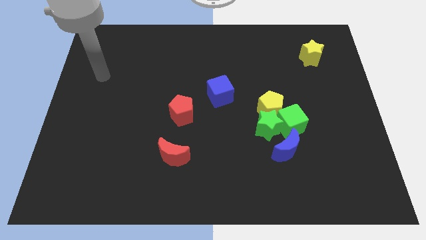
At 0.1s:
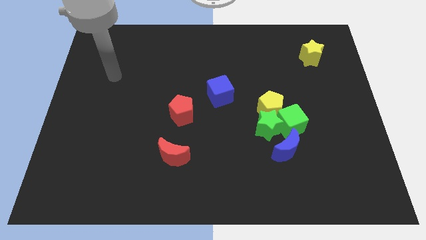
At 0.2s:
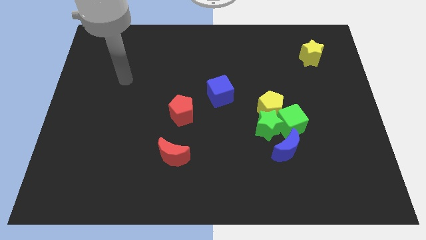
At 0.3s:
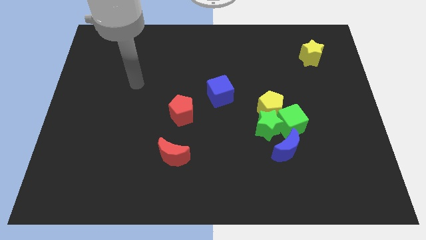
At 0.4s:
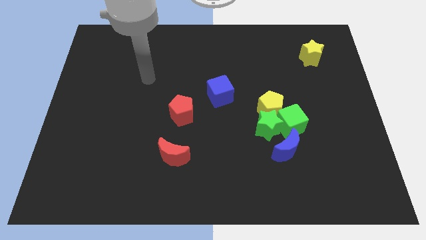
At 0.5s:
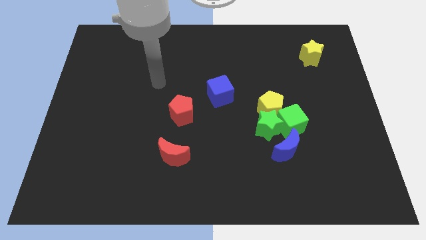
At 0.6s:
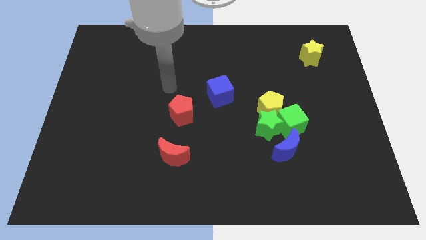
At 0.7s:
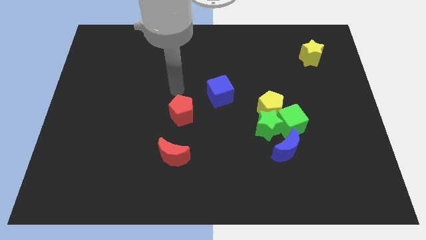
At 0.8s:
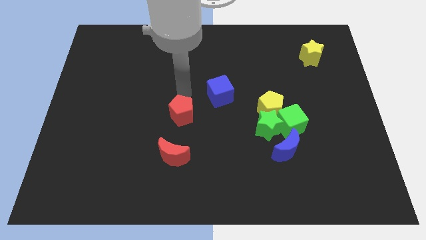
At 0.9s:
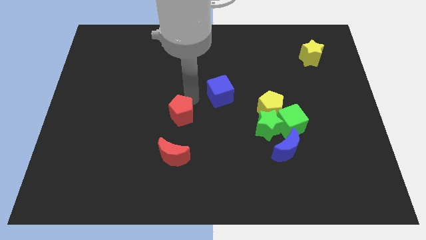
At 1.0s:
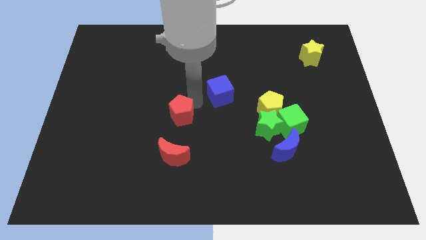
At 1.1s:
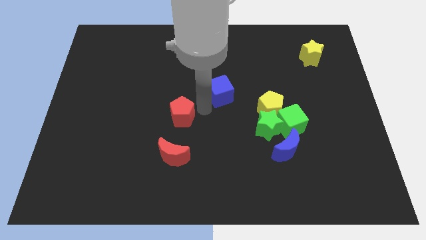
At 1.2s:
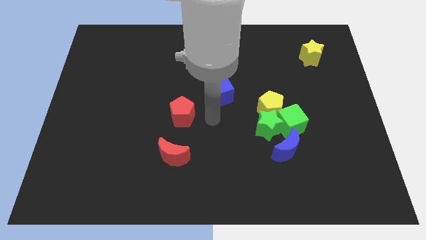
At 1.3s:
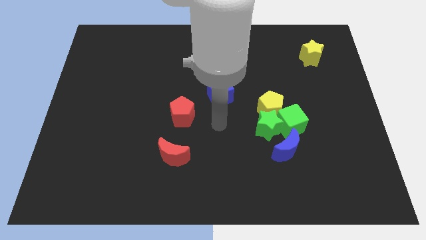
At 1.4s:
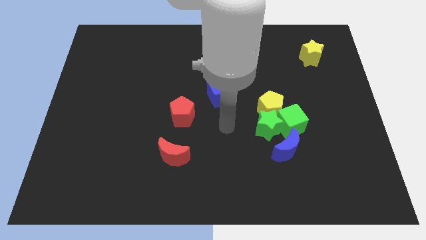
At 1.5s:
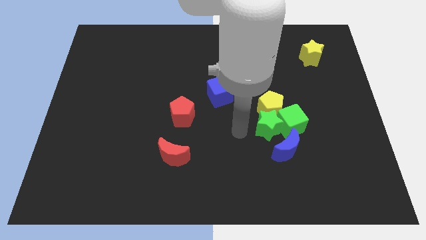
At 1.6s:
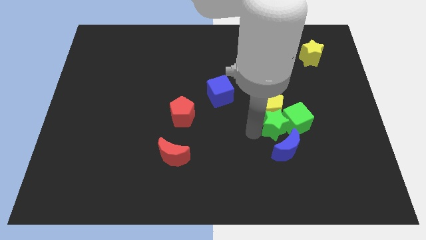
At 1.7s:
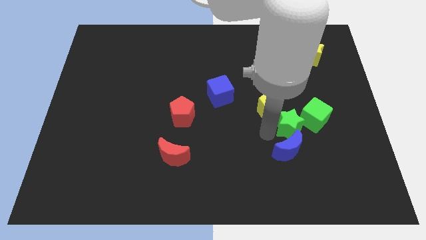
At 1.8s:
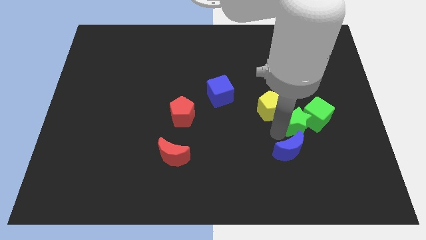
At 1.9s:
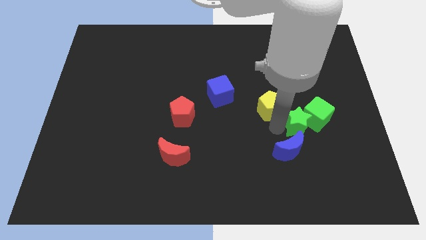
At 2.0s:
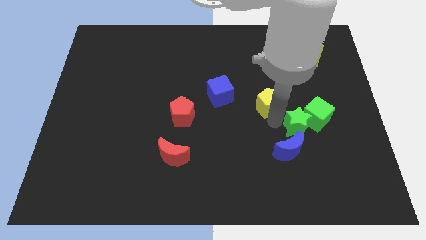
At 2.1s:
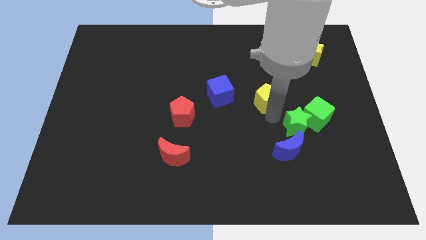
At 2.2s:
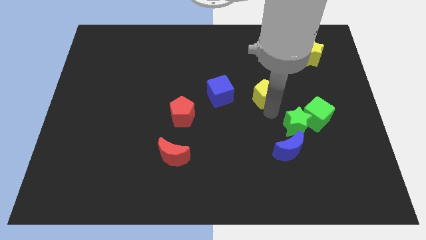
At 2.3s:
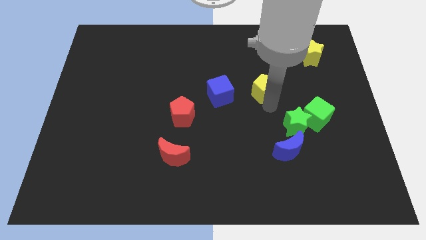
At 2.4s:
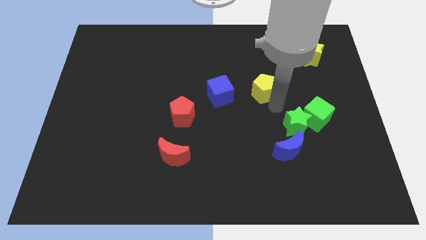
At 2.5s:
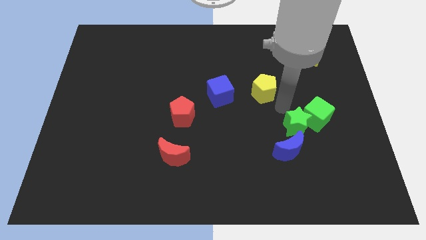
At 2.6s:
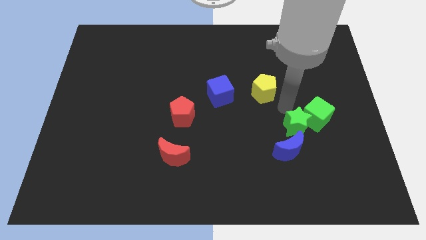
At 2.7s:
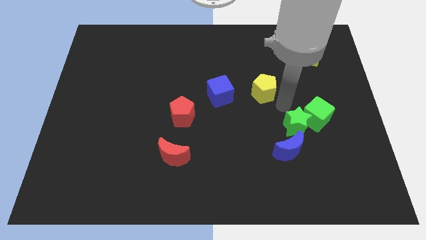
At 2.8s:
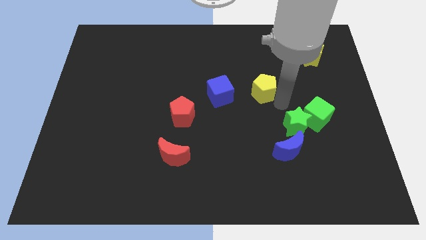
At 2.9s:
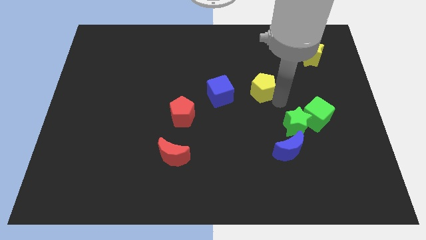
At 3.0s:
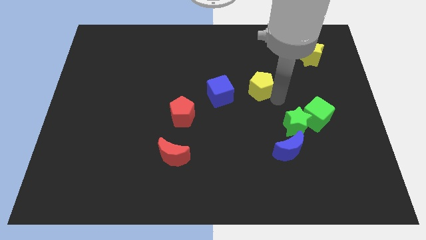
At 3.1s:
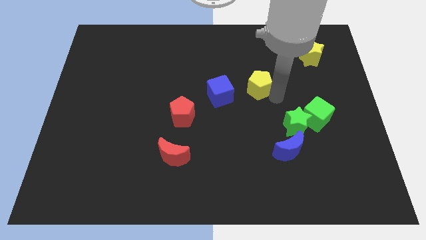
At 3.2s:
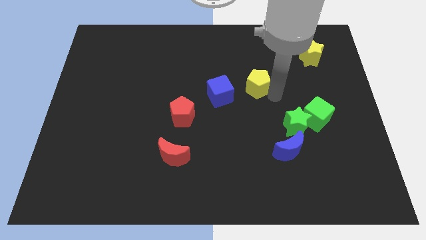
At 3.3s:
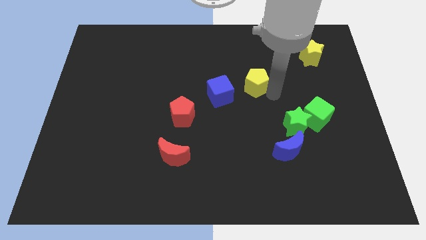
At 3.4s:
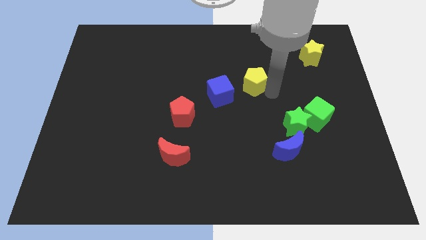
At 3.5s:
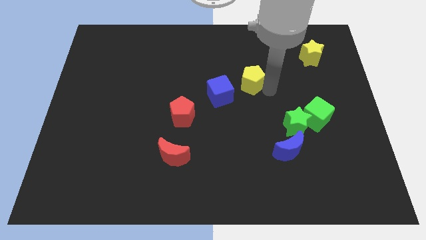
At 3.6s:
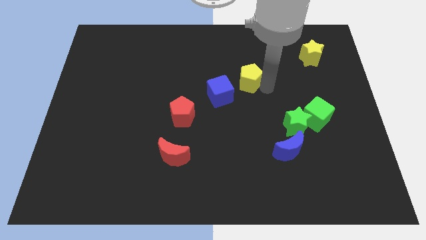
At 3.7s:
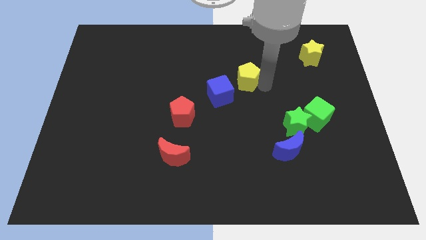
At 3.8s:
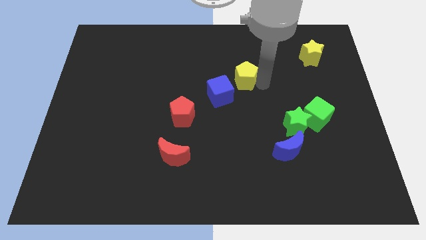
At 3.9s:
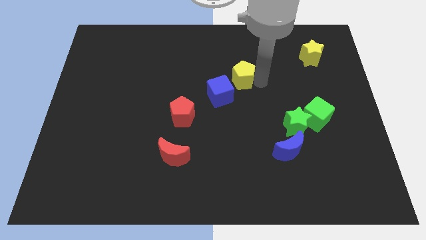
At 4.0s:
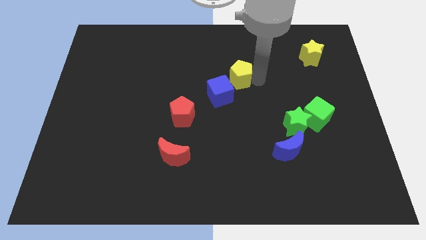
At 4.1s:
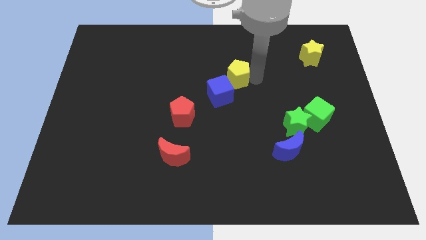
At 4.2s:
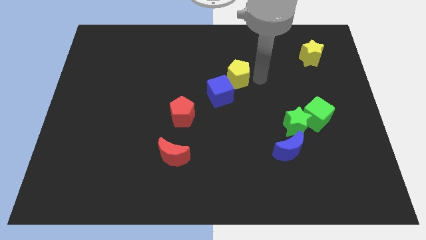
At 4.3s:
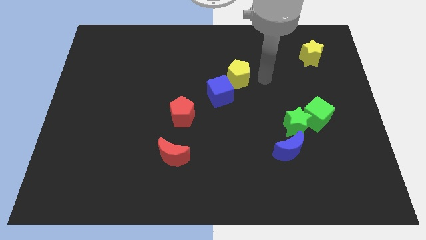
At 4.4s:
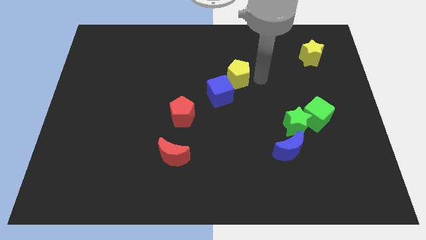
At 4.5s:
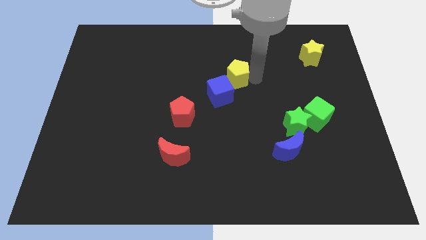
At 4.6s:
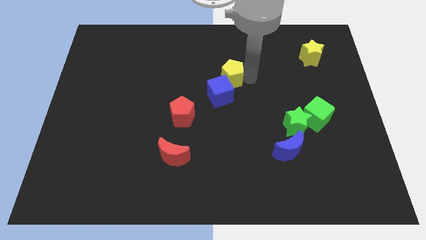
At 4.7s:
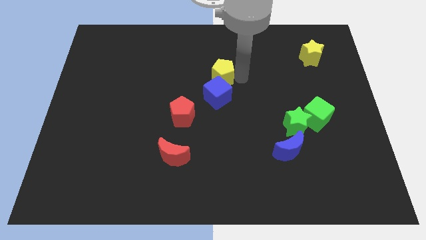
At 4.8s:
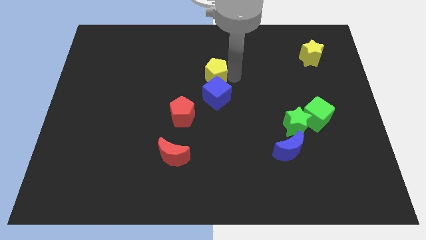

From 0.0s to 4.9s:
move the yellow pentagon diagonally up and to the left of the blue cube

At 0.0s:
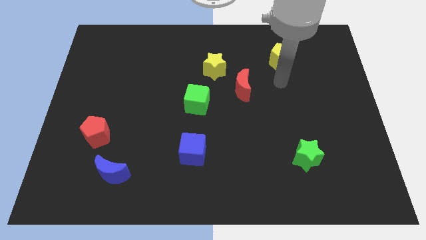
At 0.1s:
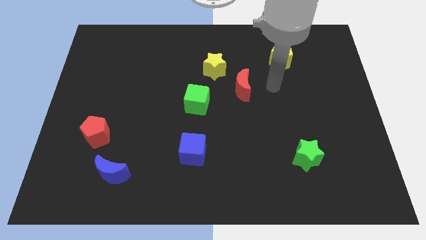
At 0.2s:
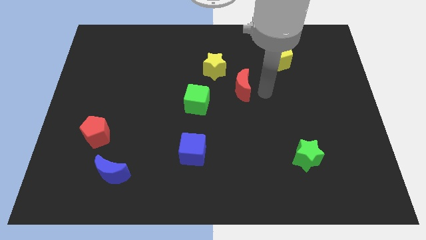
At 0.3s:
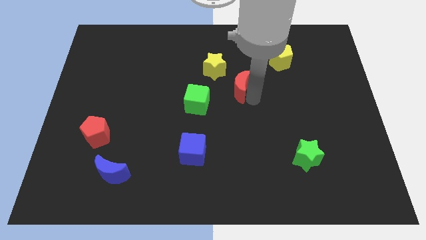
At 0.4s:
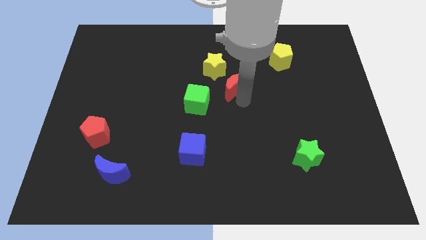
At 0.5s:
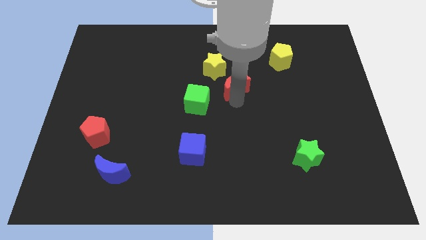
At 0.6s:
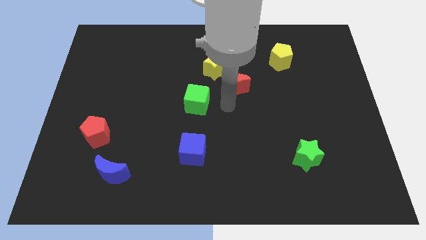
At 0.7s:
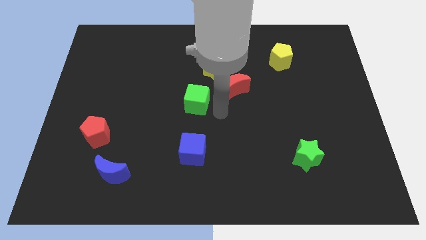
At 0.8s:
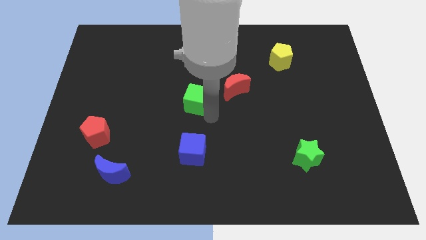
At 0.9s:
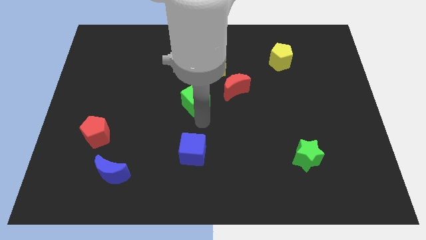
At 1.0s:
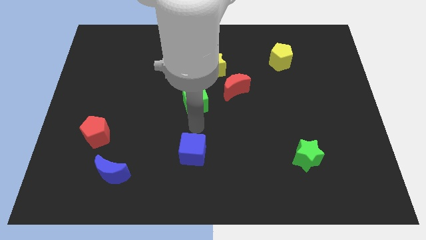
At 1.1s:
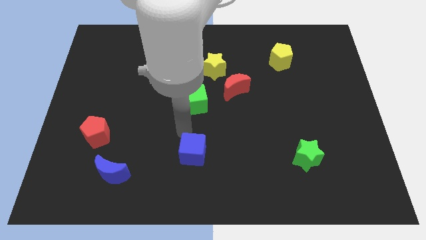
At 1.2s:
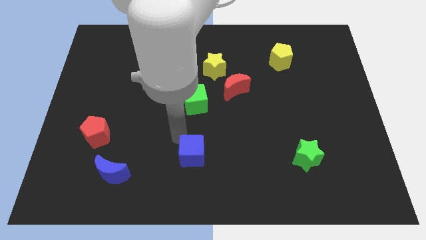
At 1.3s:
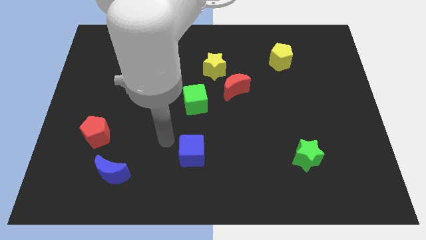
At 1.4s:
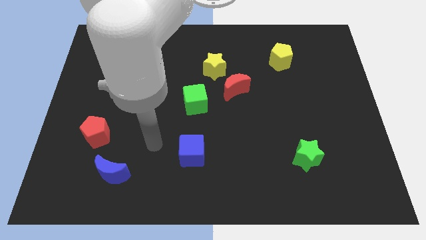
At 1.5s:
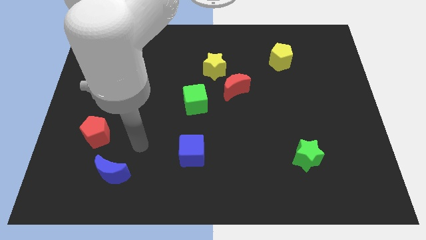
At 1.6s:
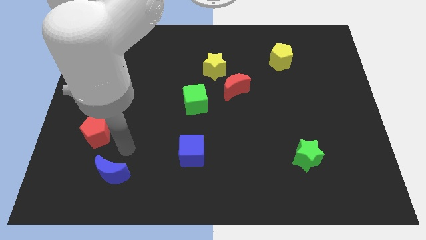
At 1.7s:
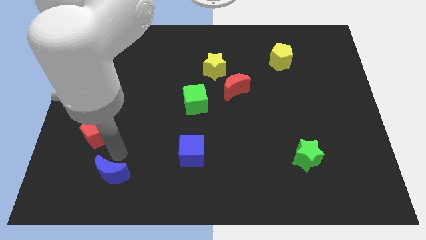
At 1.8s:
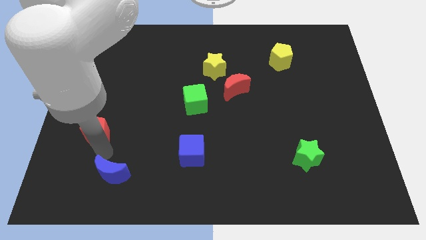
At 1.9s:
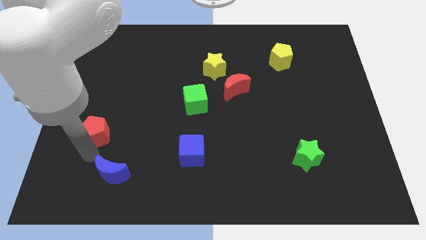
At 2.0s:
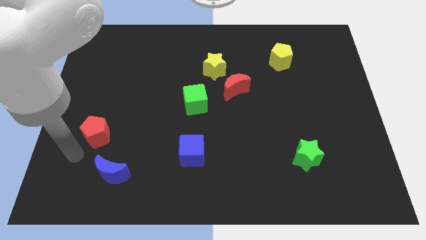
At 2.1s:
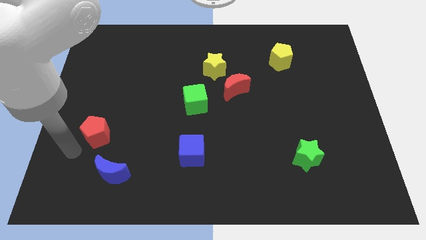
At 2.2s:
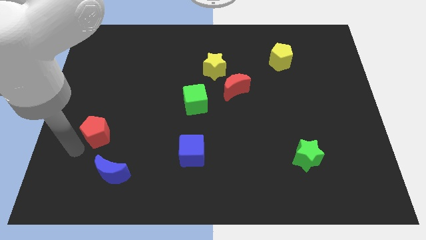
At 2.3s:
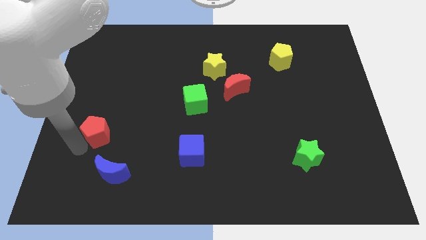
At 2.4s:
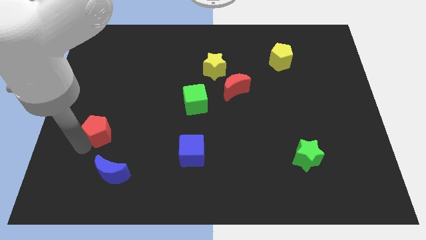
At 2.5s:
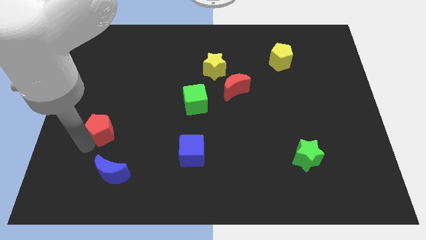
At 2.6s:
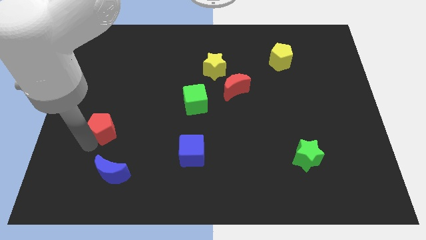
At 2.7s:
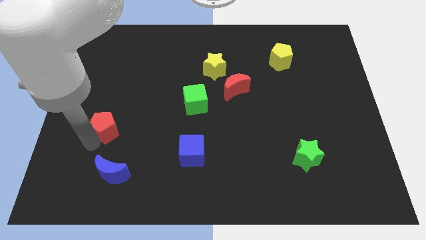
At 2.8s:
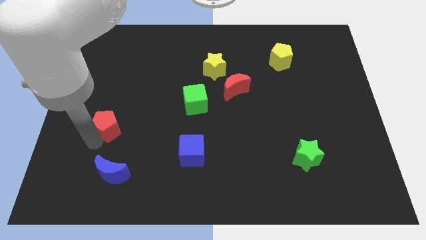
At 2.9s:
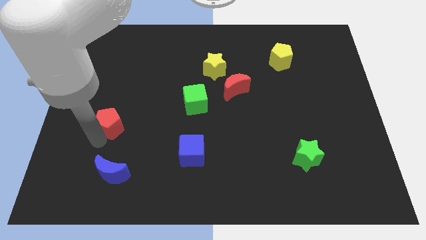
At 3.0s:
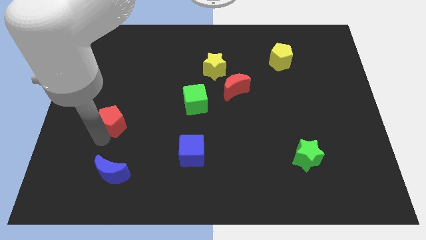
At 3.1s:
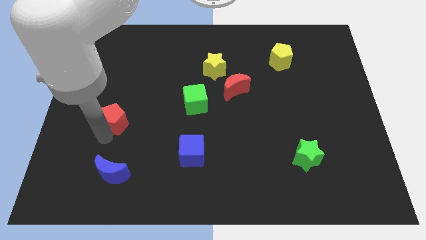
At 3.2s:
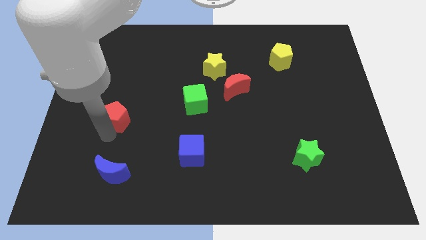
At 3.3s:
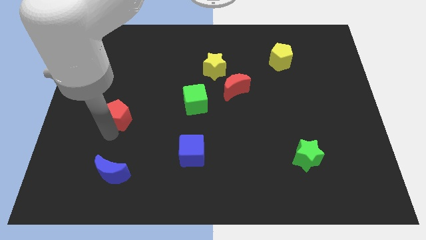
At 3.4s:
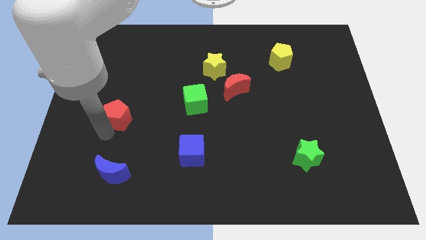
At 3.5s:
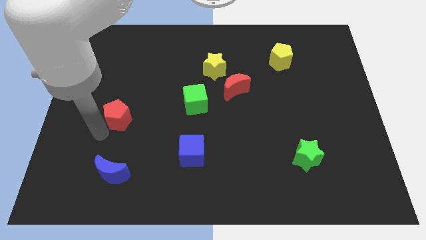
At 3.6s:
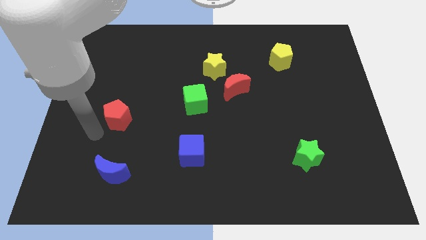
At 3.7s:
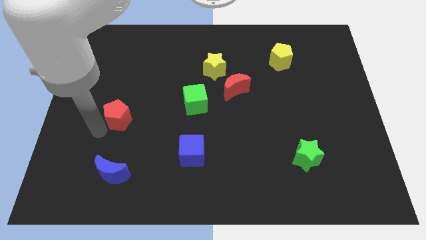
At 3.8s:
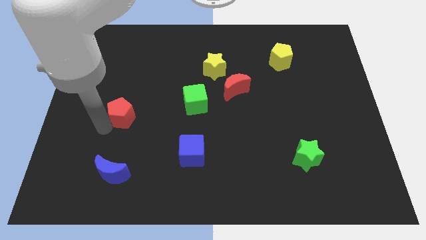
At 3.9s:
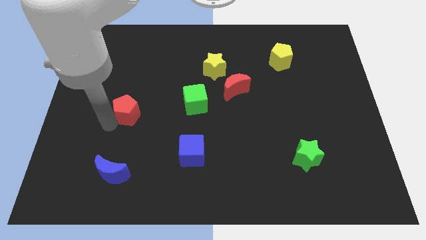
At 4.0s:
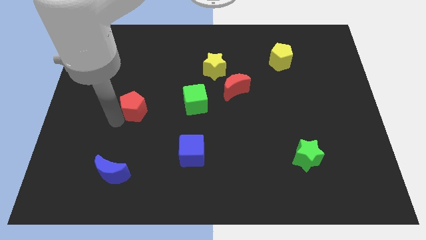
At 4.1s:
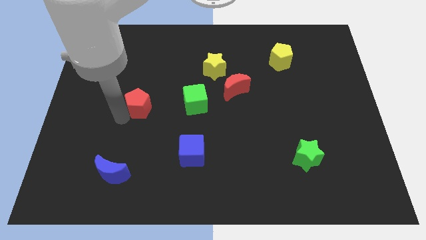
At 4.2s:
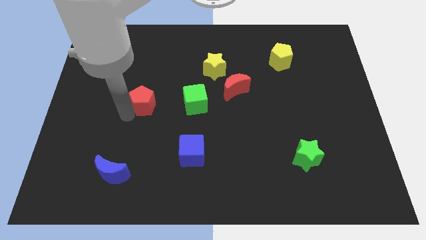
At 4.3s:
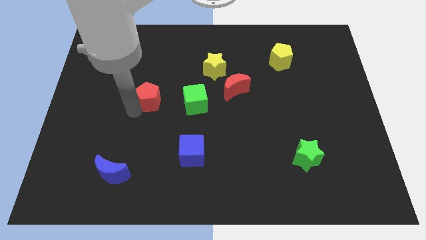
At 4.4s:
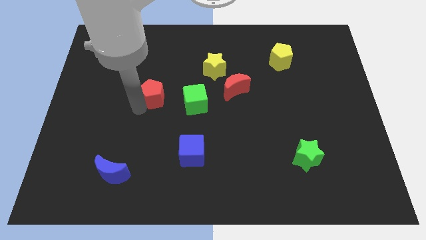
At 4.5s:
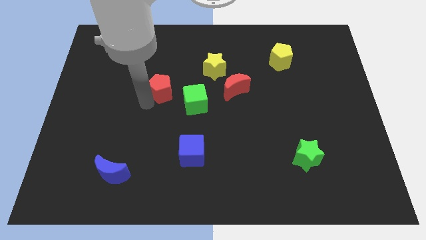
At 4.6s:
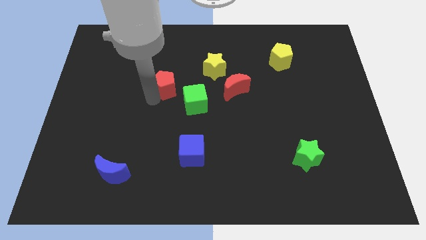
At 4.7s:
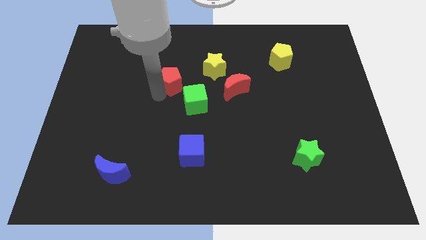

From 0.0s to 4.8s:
put the red pentagon to the left of the yellow star
